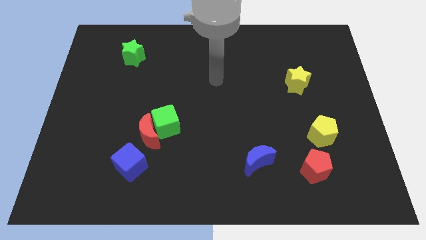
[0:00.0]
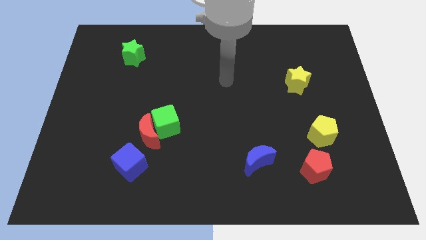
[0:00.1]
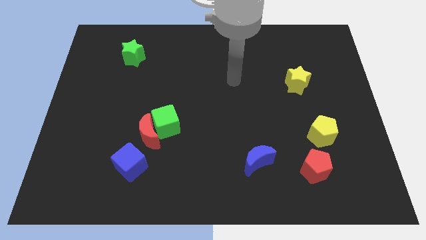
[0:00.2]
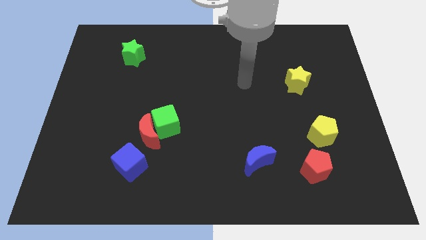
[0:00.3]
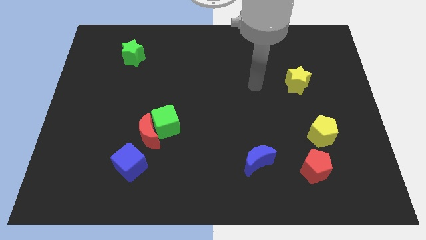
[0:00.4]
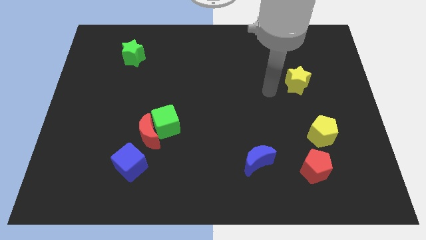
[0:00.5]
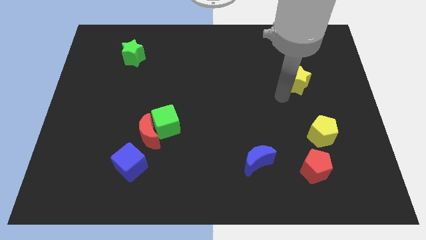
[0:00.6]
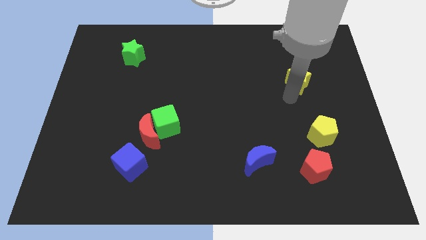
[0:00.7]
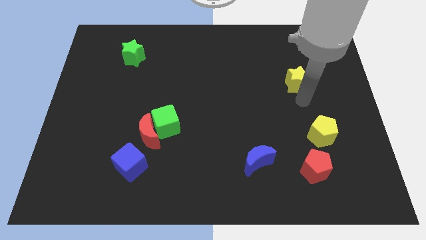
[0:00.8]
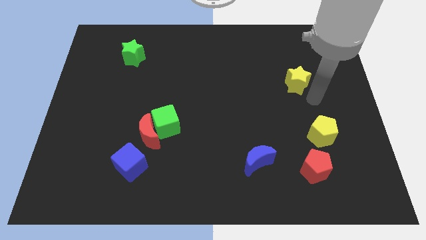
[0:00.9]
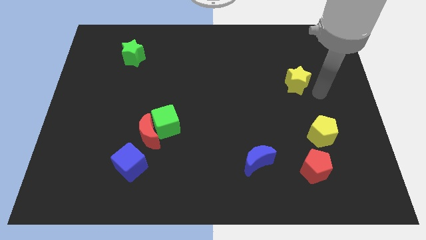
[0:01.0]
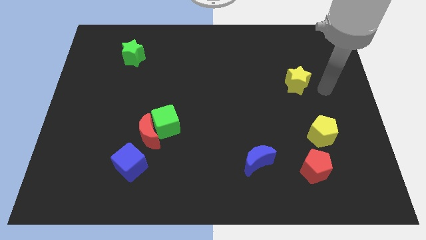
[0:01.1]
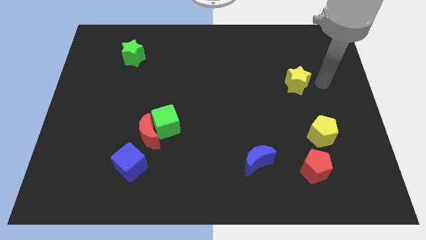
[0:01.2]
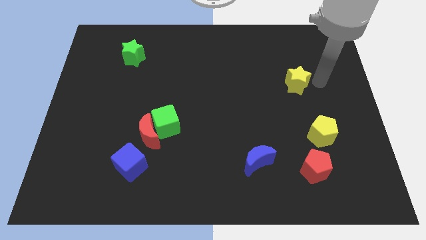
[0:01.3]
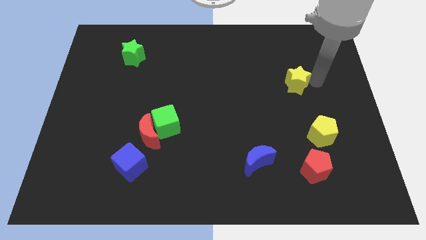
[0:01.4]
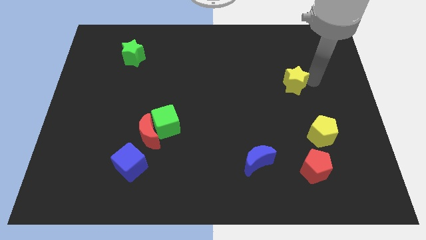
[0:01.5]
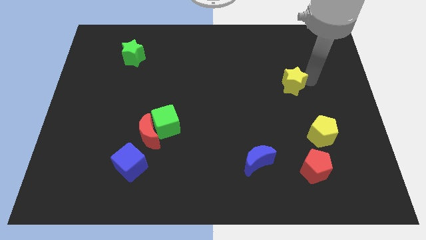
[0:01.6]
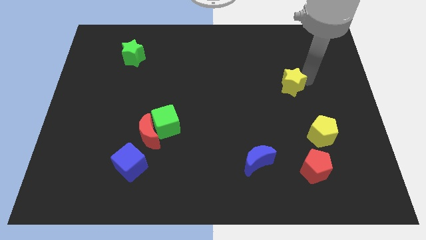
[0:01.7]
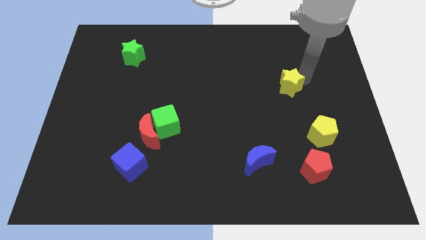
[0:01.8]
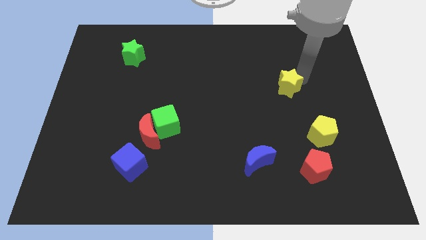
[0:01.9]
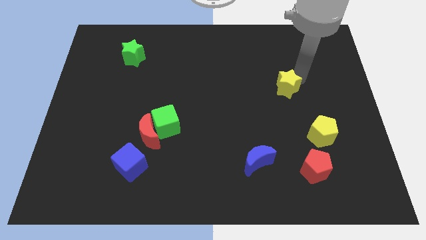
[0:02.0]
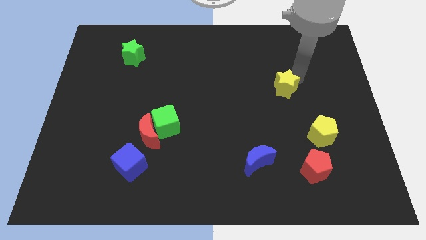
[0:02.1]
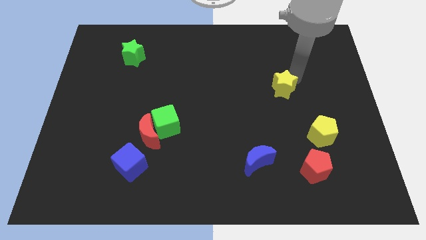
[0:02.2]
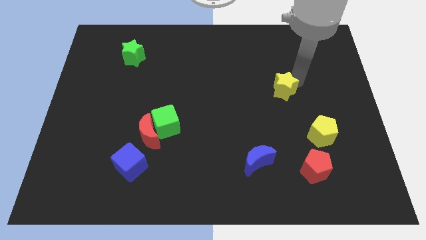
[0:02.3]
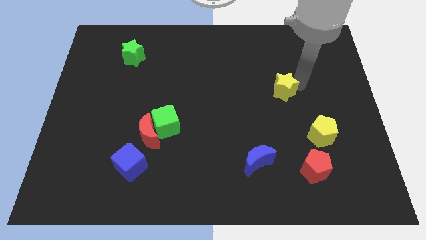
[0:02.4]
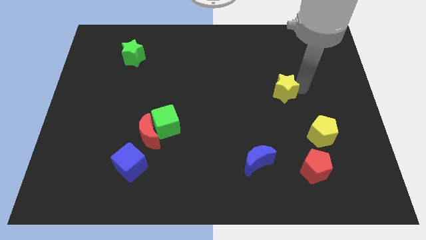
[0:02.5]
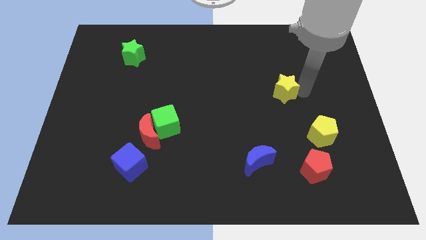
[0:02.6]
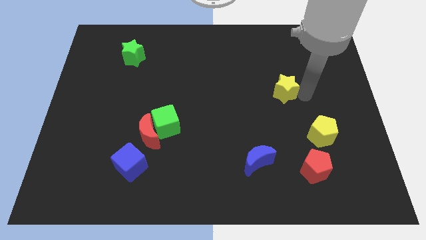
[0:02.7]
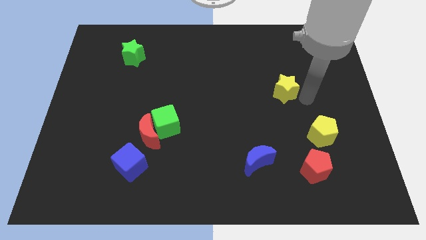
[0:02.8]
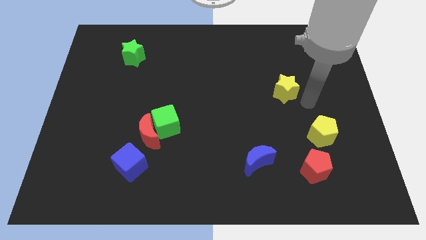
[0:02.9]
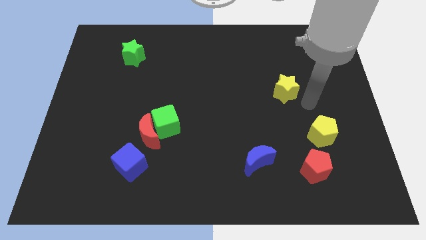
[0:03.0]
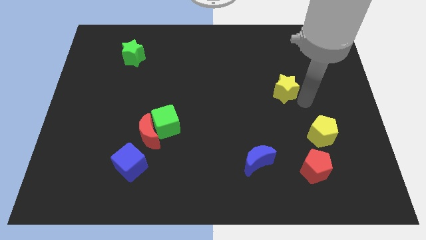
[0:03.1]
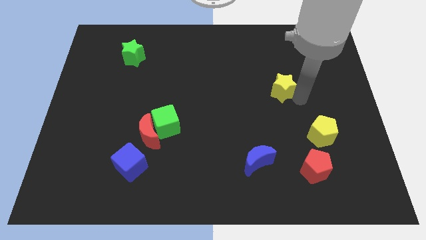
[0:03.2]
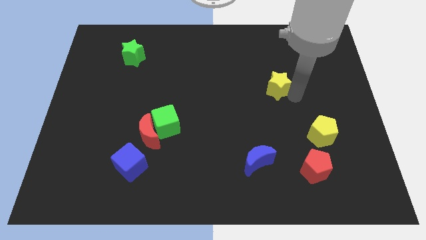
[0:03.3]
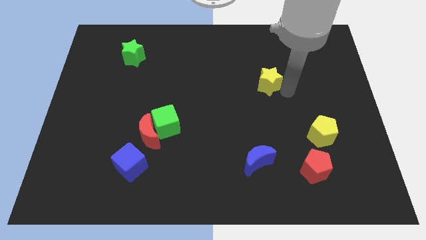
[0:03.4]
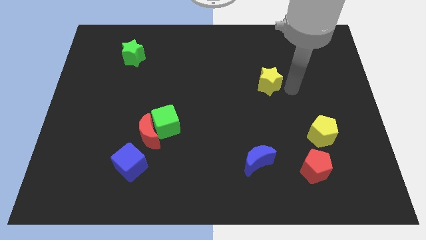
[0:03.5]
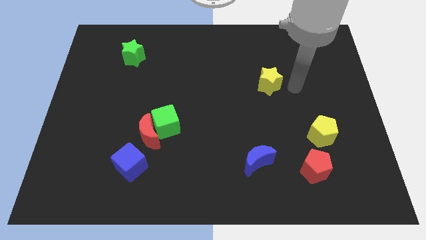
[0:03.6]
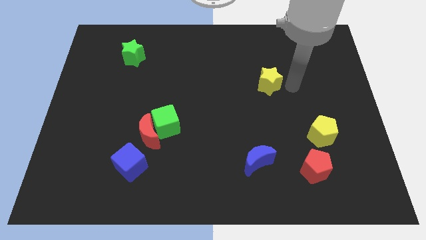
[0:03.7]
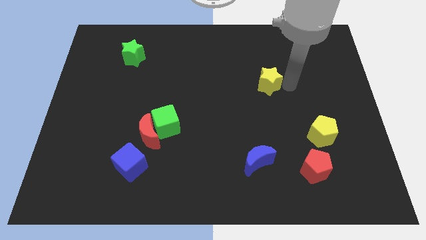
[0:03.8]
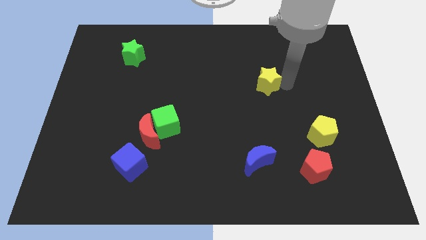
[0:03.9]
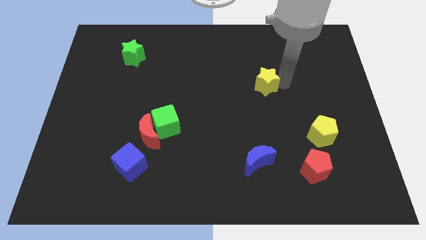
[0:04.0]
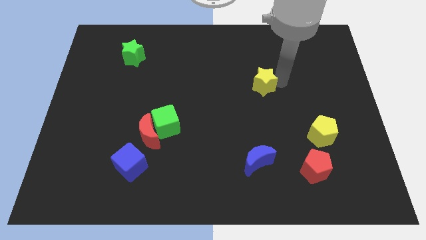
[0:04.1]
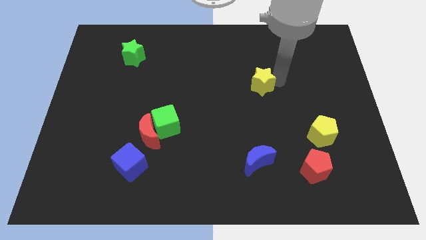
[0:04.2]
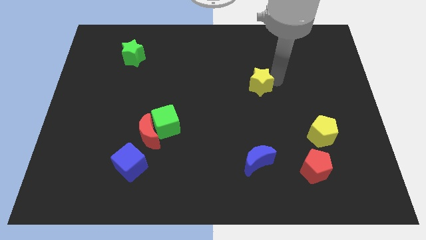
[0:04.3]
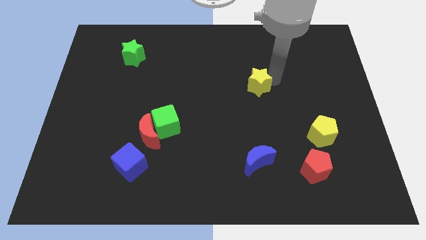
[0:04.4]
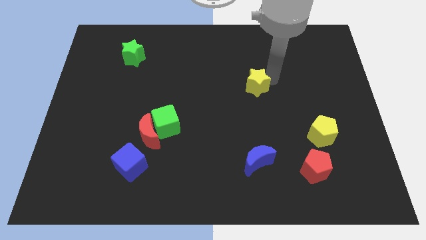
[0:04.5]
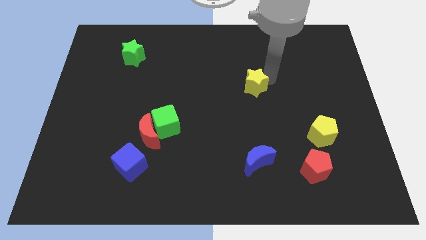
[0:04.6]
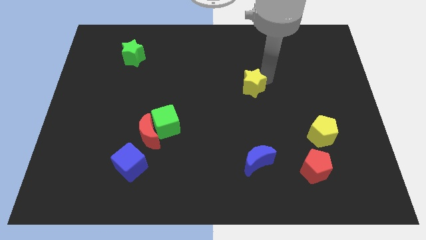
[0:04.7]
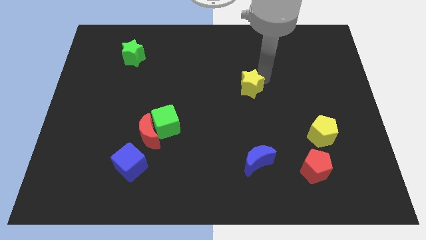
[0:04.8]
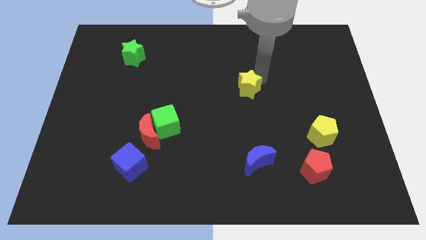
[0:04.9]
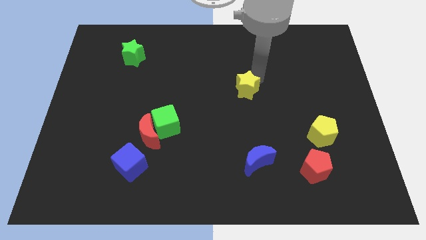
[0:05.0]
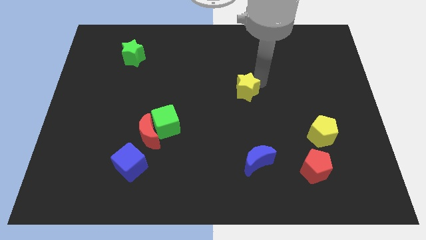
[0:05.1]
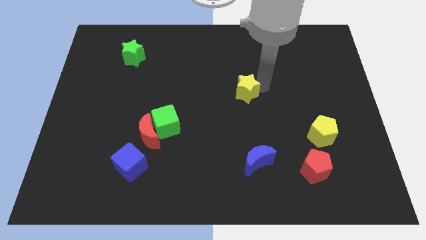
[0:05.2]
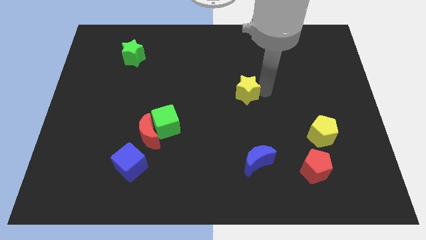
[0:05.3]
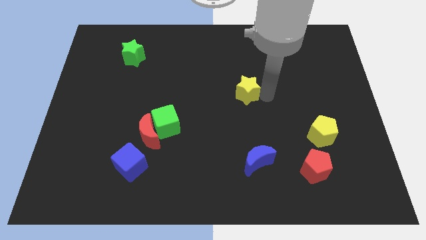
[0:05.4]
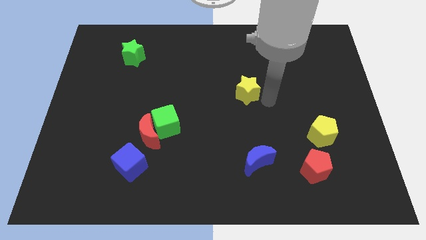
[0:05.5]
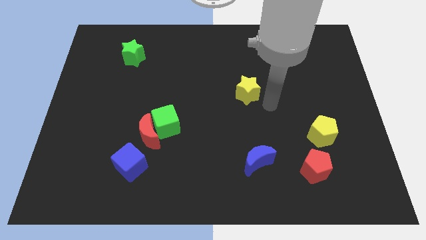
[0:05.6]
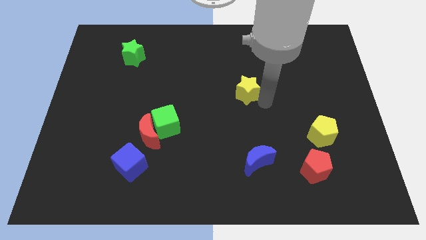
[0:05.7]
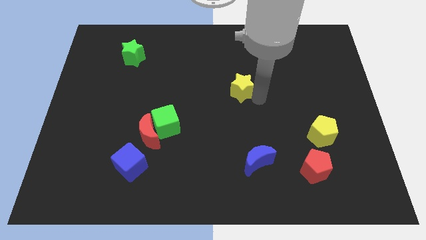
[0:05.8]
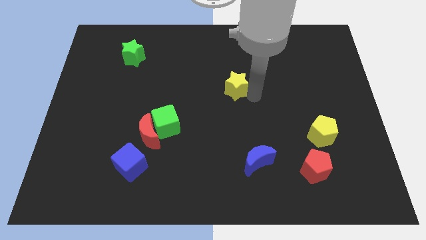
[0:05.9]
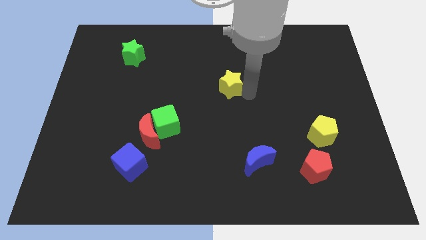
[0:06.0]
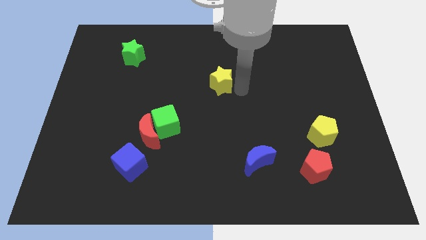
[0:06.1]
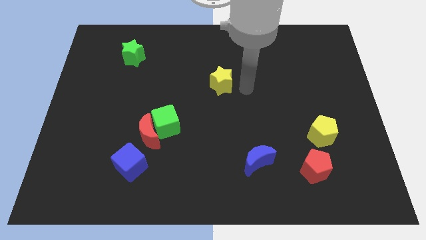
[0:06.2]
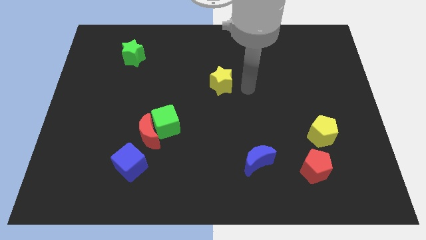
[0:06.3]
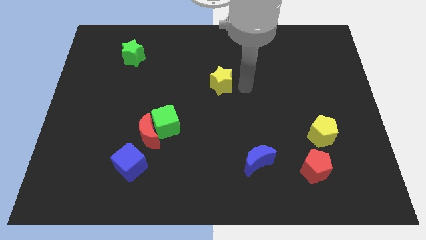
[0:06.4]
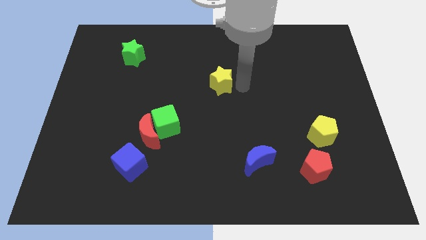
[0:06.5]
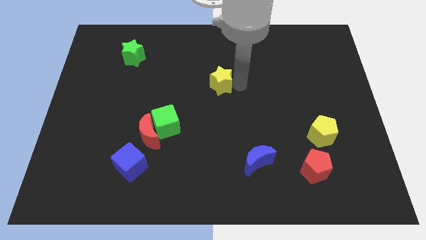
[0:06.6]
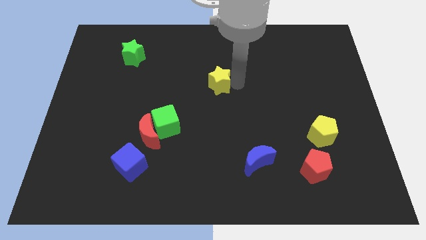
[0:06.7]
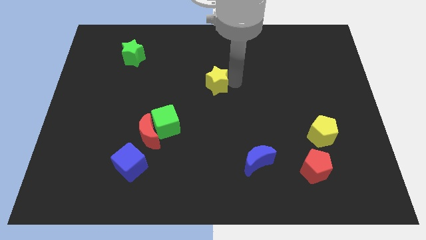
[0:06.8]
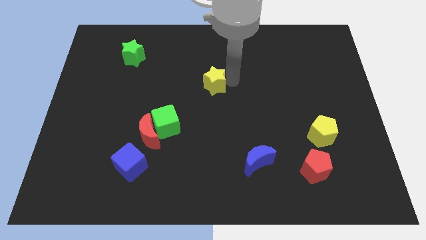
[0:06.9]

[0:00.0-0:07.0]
slide the yellow star left

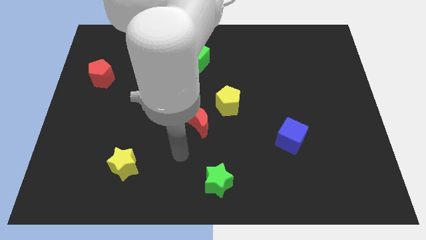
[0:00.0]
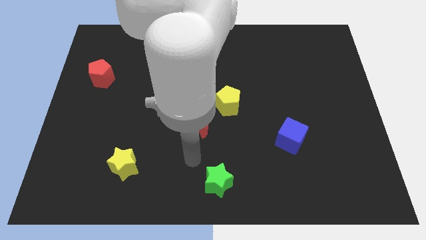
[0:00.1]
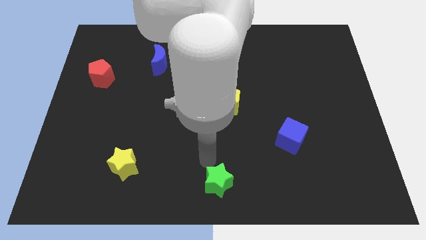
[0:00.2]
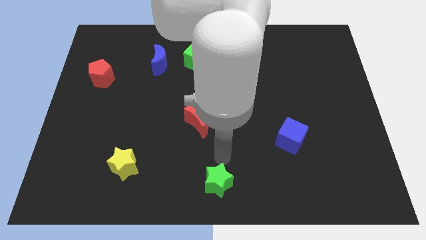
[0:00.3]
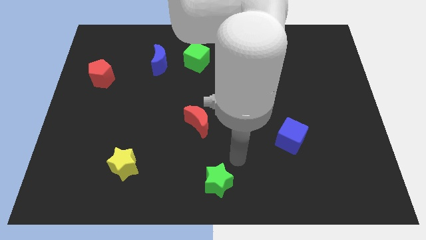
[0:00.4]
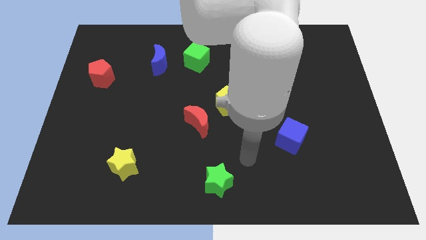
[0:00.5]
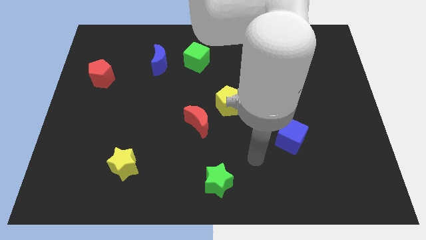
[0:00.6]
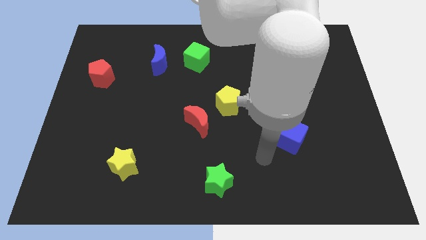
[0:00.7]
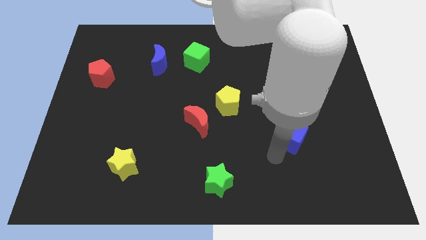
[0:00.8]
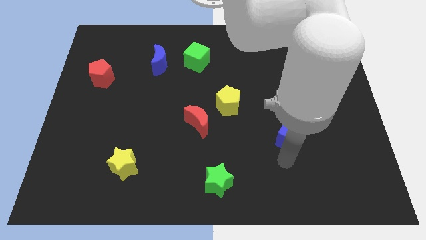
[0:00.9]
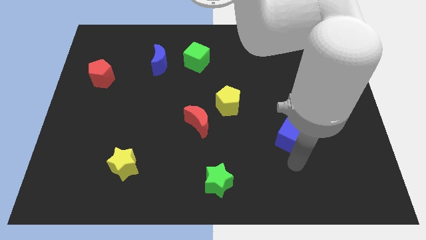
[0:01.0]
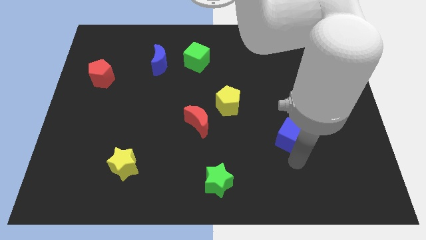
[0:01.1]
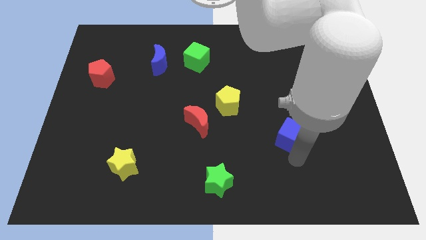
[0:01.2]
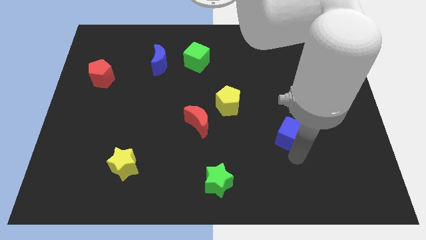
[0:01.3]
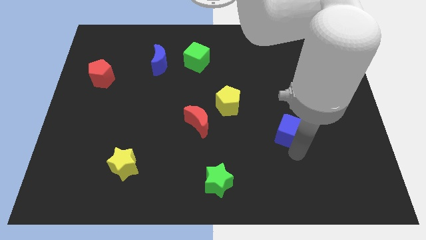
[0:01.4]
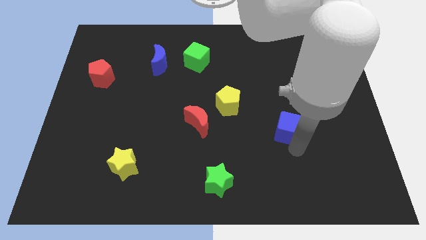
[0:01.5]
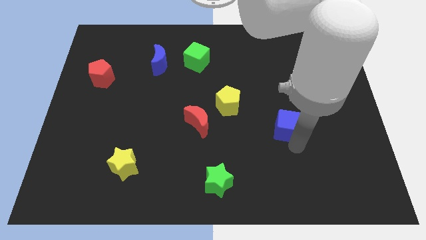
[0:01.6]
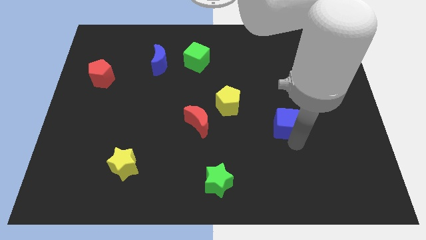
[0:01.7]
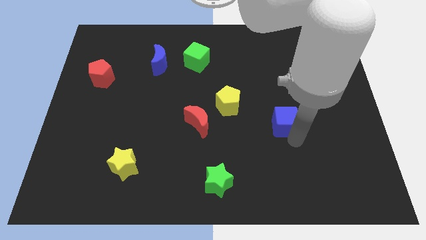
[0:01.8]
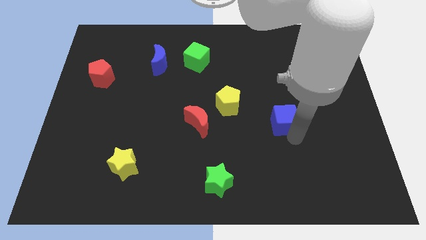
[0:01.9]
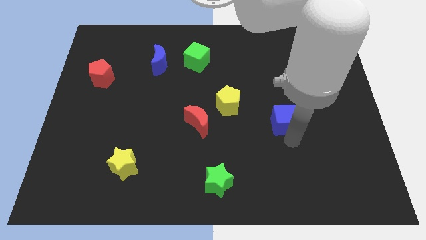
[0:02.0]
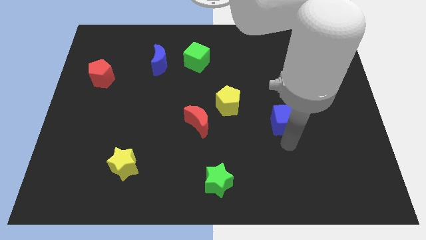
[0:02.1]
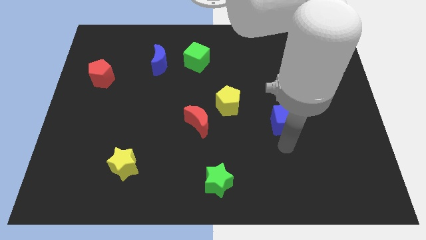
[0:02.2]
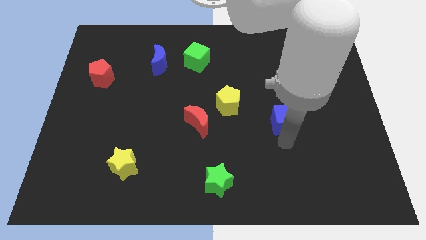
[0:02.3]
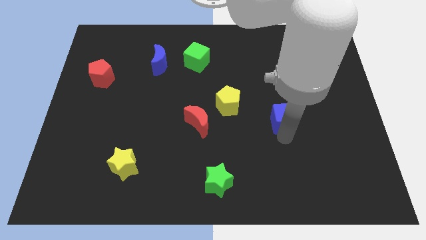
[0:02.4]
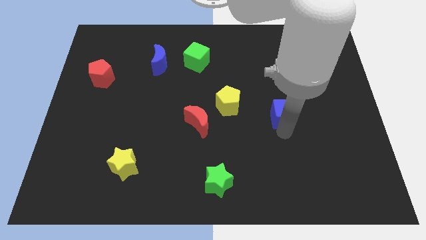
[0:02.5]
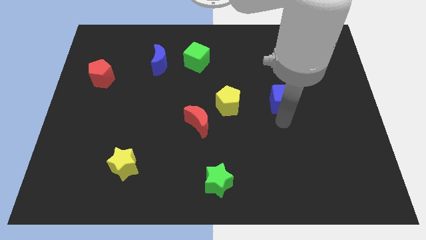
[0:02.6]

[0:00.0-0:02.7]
slide the blue cube upwards somewhat
